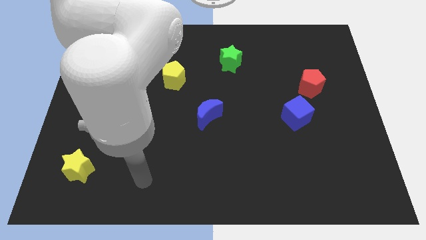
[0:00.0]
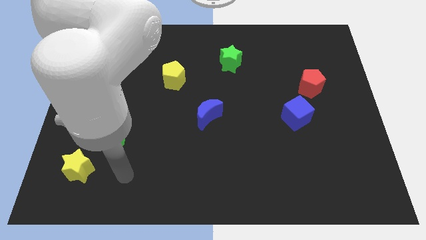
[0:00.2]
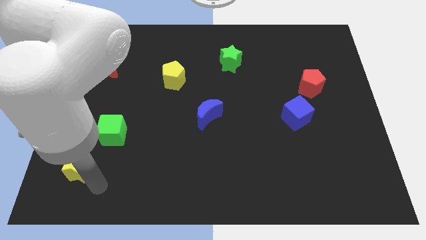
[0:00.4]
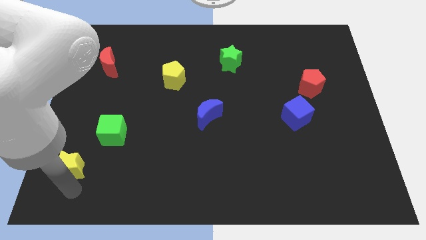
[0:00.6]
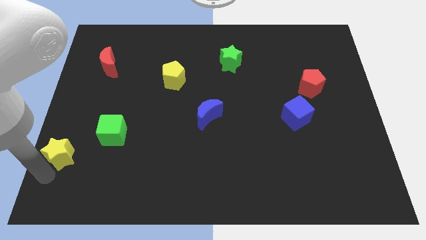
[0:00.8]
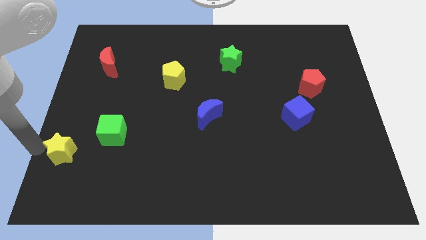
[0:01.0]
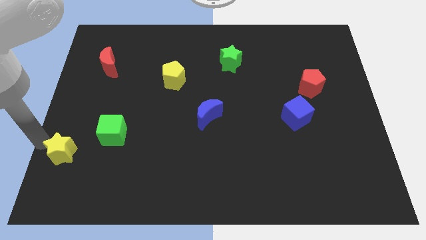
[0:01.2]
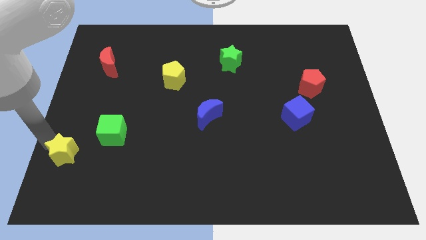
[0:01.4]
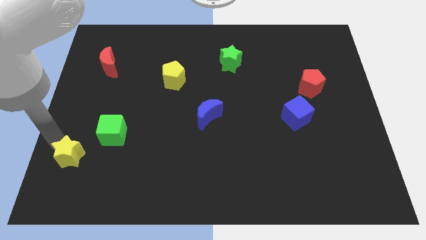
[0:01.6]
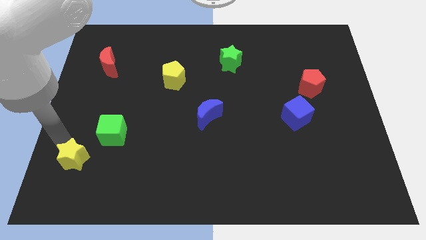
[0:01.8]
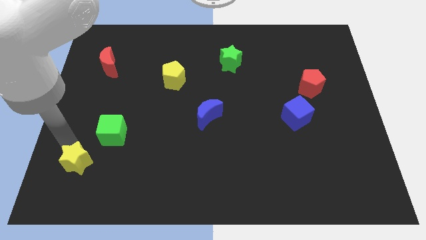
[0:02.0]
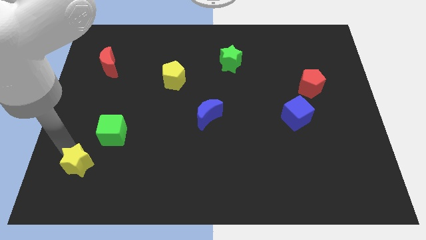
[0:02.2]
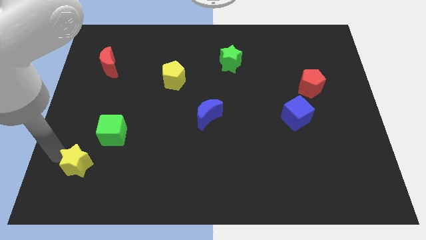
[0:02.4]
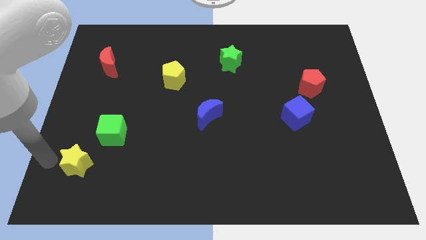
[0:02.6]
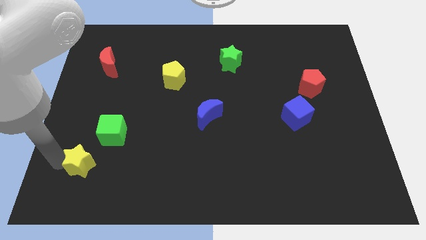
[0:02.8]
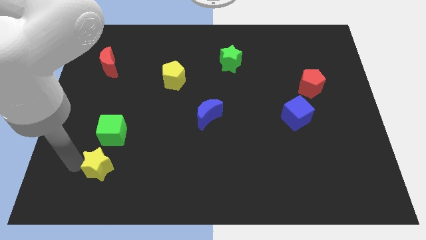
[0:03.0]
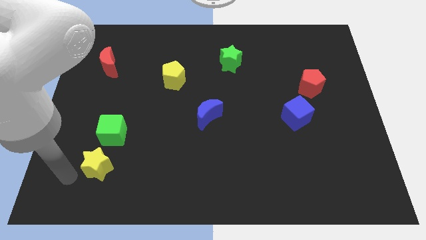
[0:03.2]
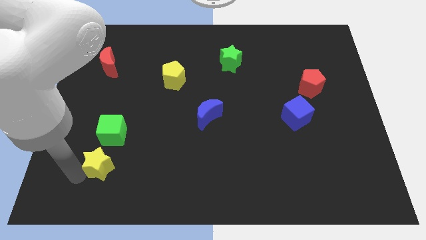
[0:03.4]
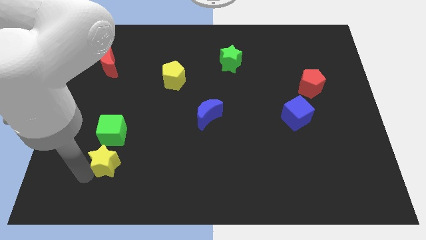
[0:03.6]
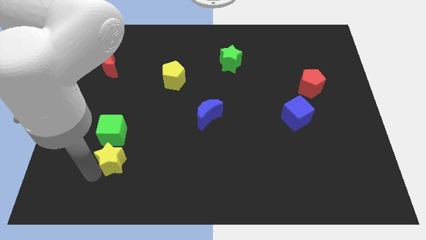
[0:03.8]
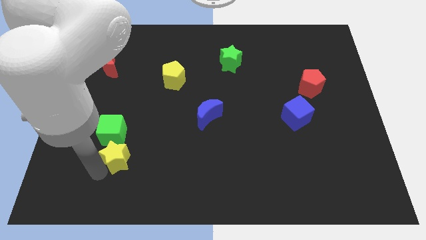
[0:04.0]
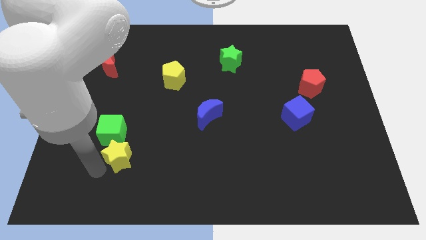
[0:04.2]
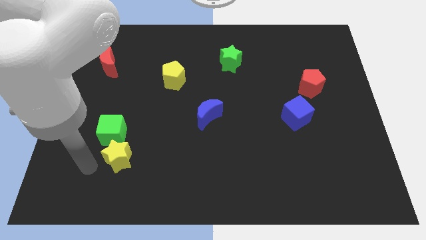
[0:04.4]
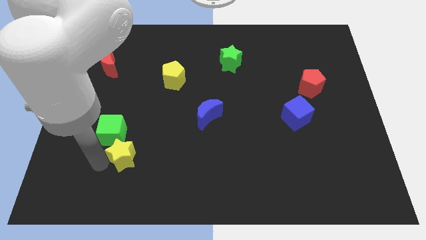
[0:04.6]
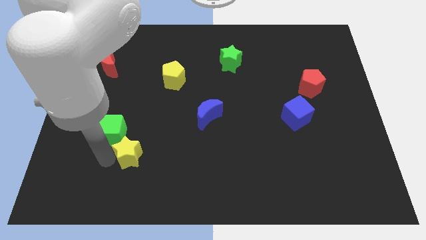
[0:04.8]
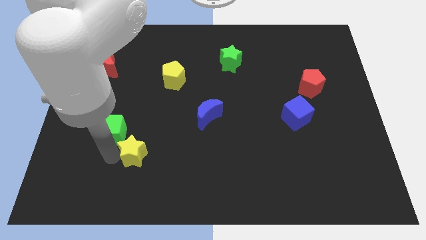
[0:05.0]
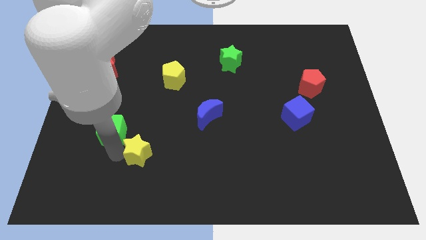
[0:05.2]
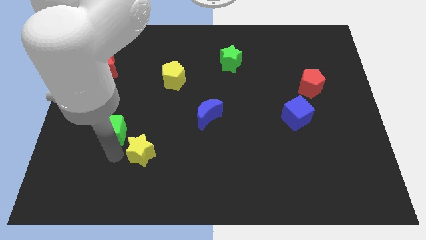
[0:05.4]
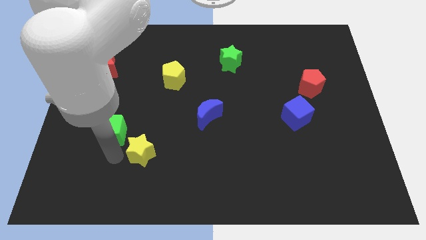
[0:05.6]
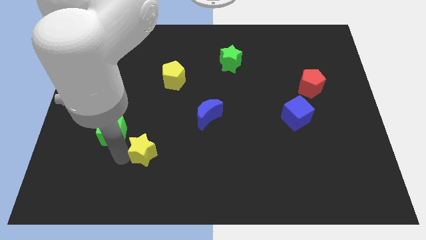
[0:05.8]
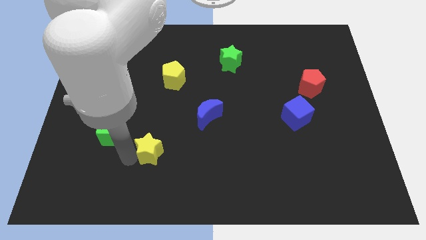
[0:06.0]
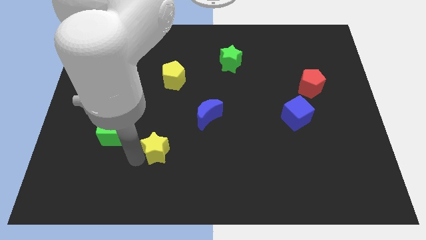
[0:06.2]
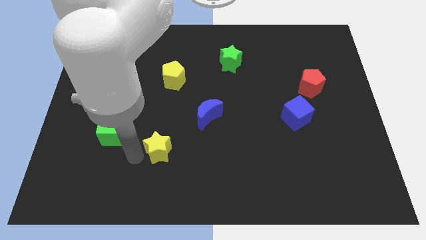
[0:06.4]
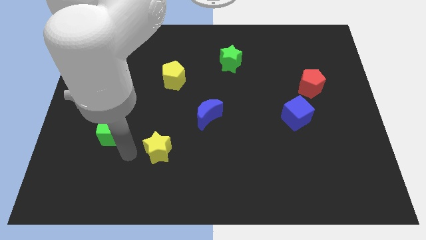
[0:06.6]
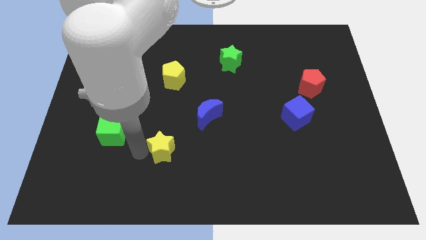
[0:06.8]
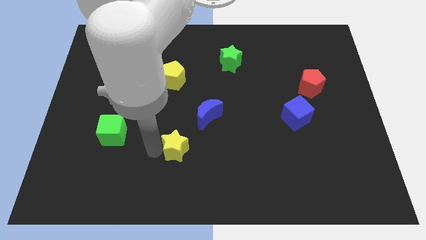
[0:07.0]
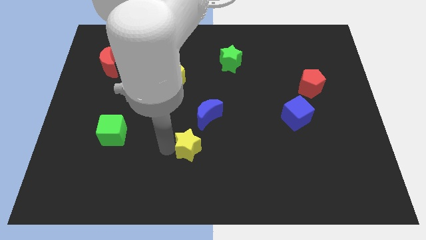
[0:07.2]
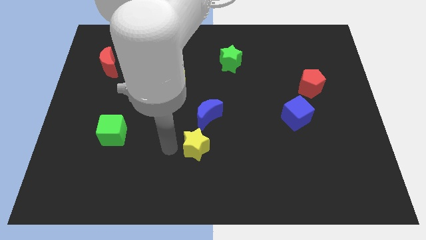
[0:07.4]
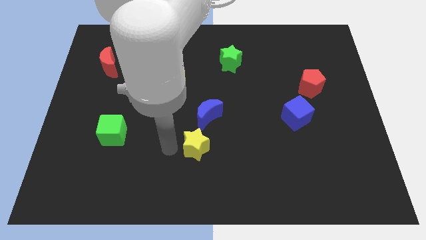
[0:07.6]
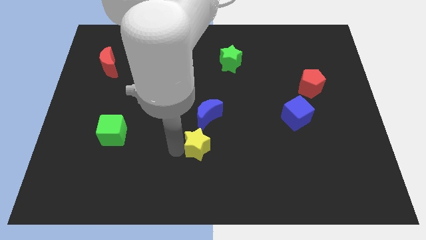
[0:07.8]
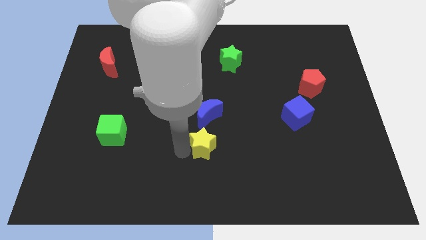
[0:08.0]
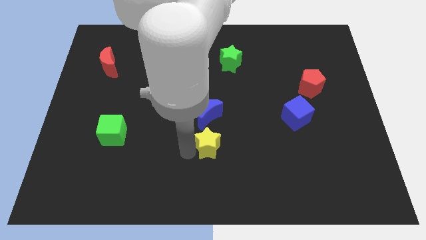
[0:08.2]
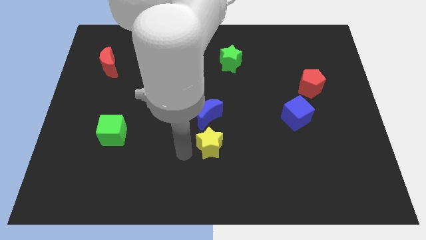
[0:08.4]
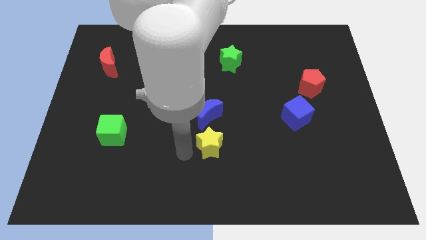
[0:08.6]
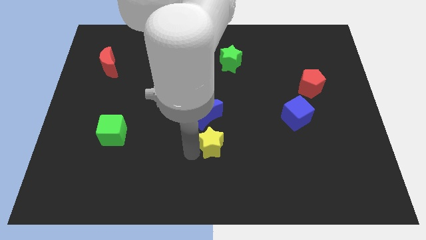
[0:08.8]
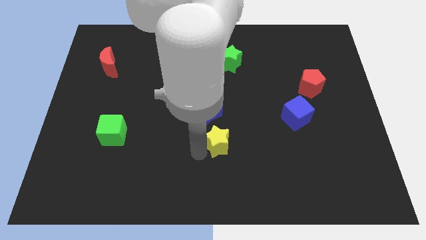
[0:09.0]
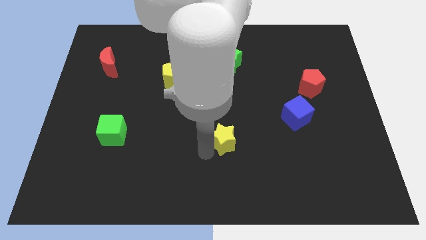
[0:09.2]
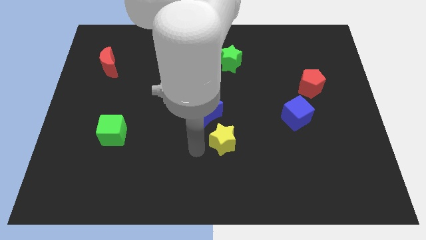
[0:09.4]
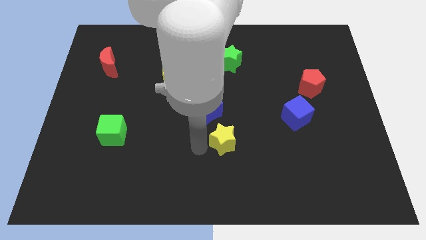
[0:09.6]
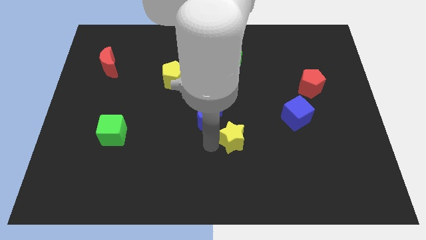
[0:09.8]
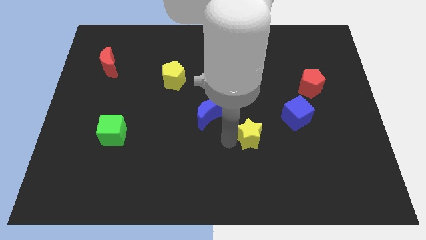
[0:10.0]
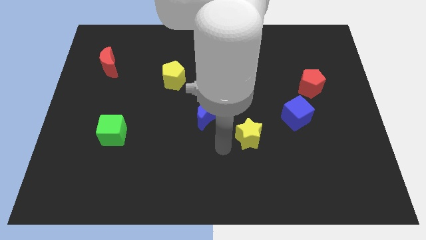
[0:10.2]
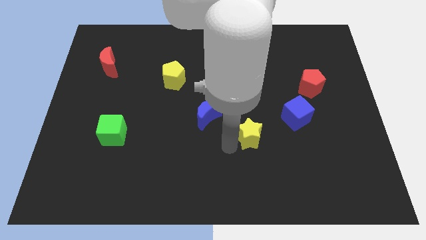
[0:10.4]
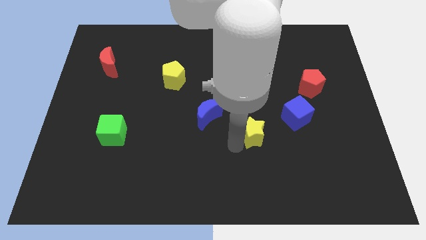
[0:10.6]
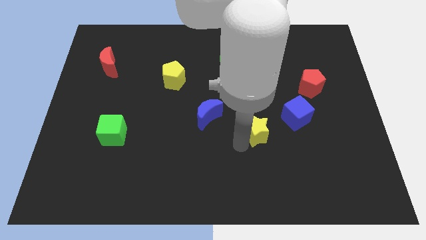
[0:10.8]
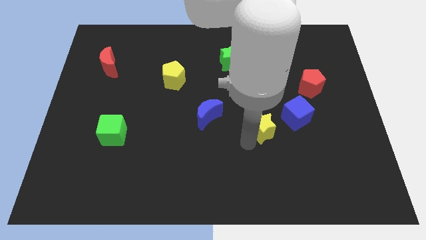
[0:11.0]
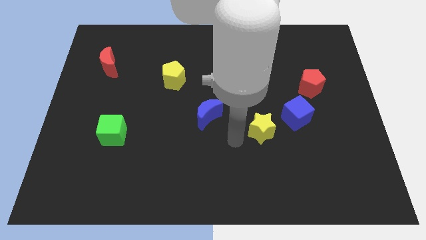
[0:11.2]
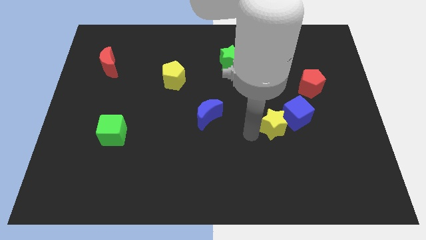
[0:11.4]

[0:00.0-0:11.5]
move the yellow star towards the blue cube
